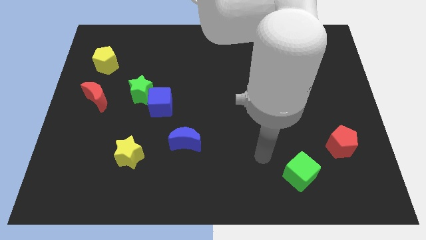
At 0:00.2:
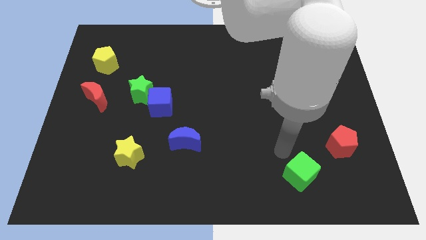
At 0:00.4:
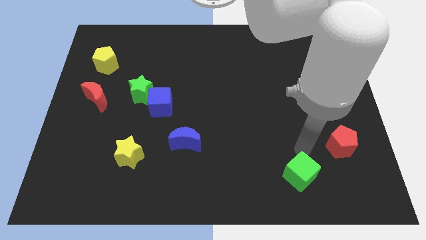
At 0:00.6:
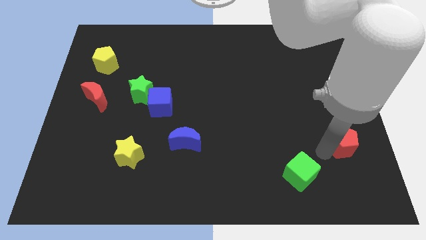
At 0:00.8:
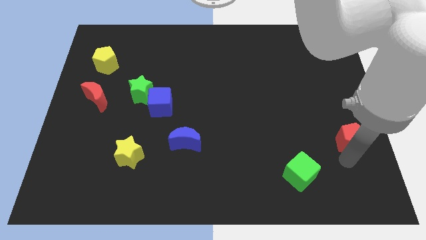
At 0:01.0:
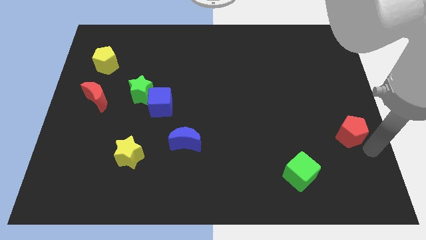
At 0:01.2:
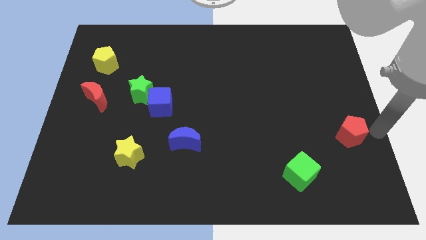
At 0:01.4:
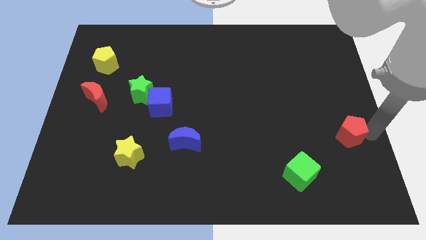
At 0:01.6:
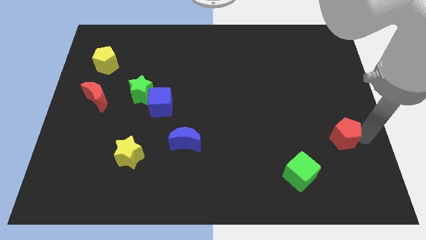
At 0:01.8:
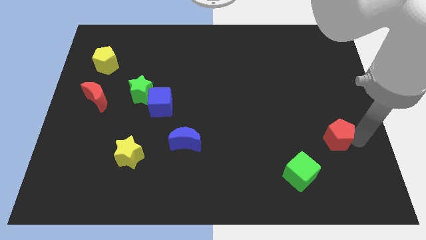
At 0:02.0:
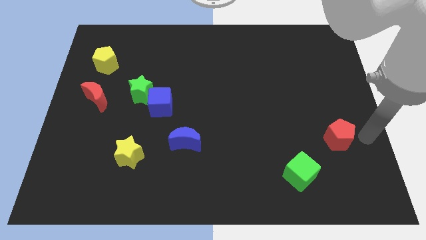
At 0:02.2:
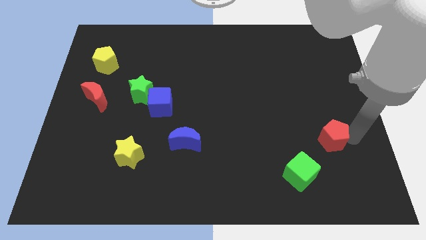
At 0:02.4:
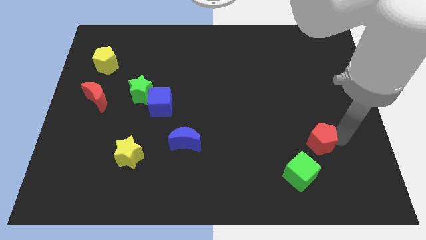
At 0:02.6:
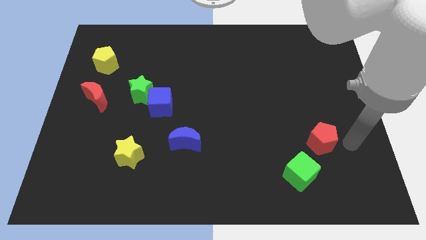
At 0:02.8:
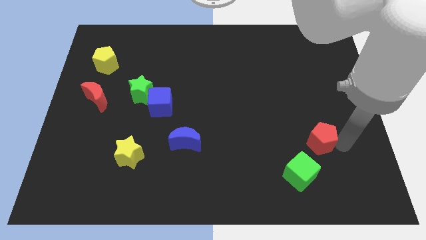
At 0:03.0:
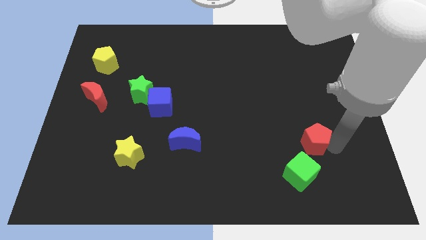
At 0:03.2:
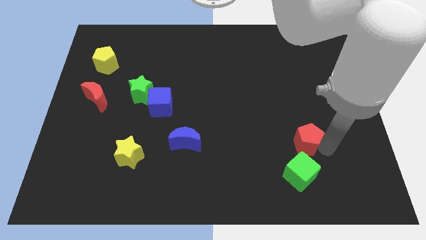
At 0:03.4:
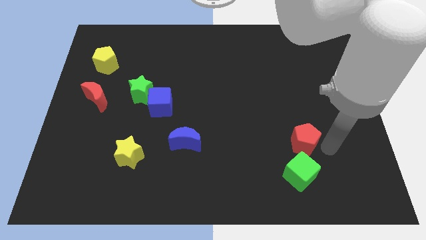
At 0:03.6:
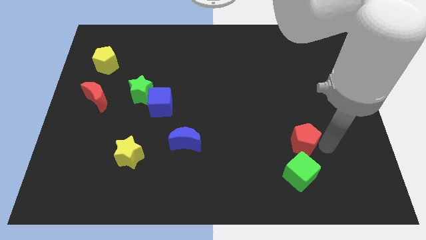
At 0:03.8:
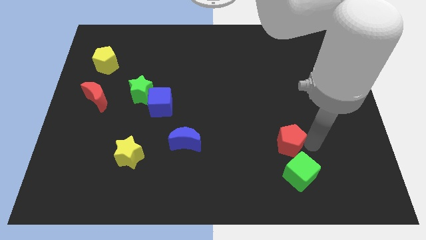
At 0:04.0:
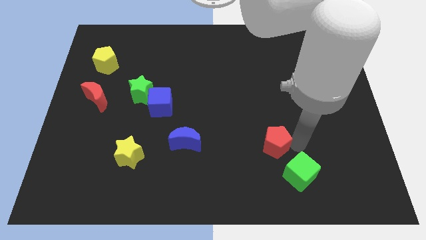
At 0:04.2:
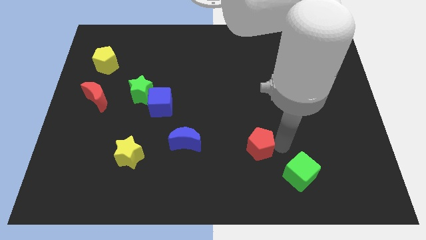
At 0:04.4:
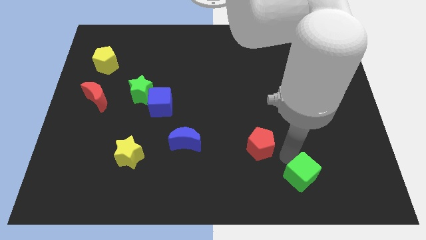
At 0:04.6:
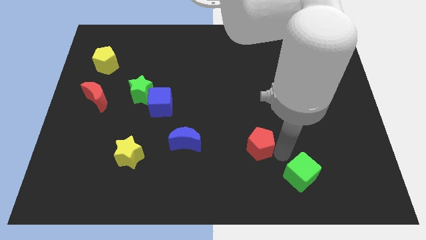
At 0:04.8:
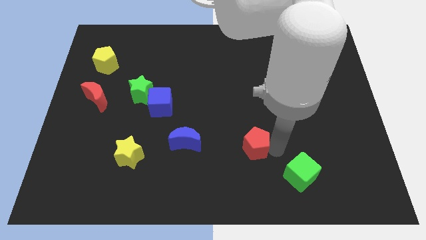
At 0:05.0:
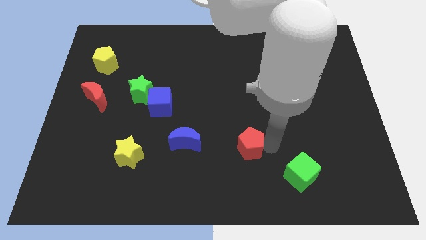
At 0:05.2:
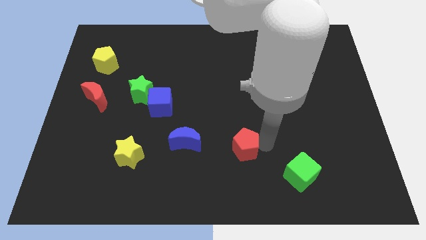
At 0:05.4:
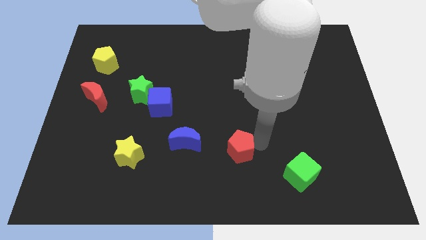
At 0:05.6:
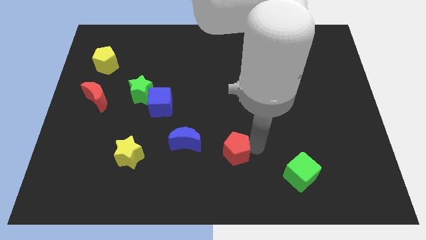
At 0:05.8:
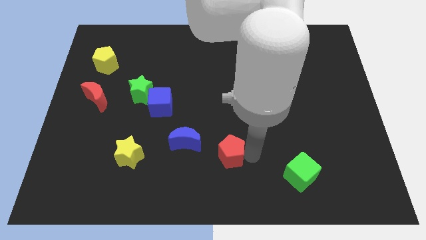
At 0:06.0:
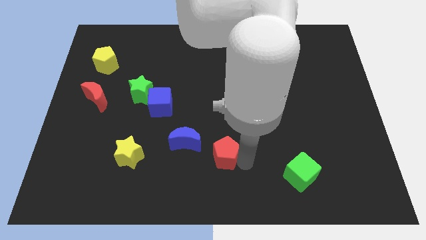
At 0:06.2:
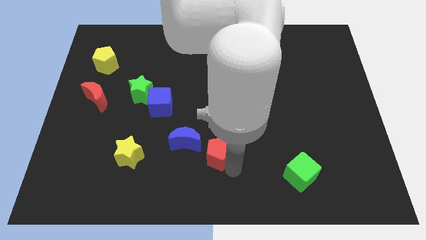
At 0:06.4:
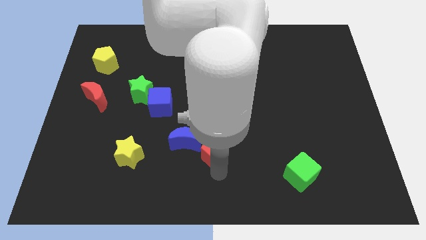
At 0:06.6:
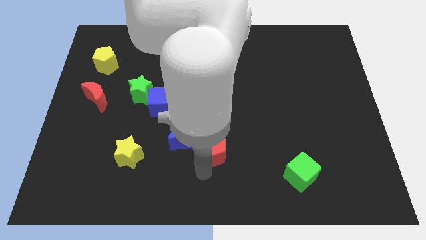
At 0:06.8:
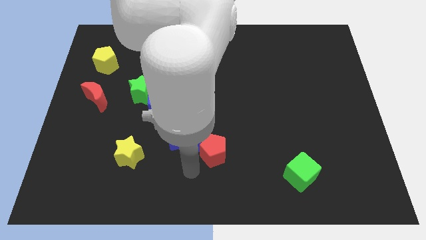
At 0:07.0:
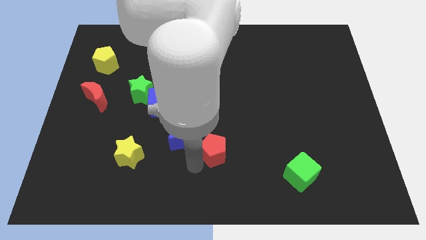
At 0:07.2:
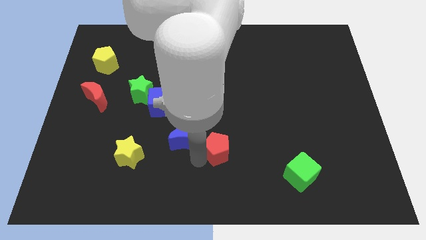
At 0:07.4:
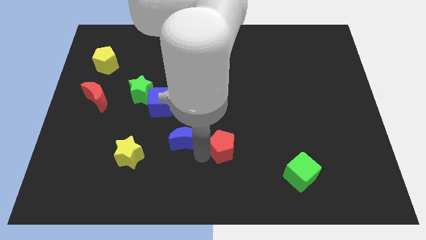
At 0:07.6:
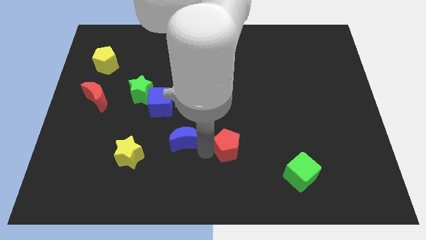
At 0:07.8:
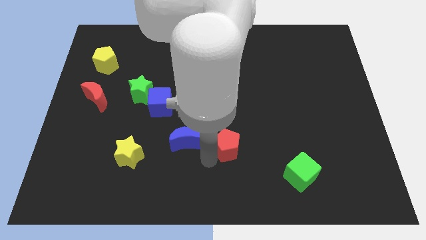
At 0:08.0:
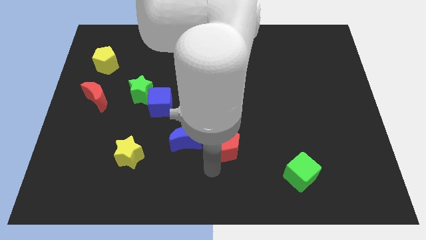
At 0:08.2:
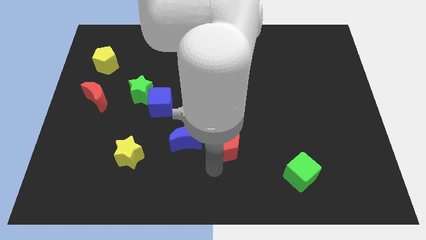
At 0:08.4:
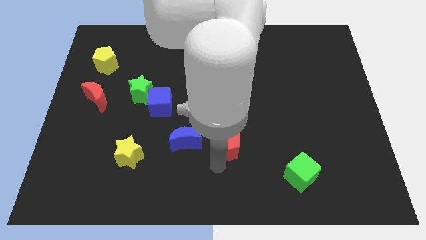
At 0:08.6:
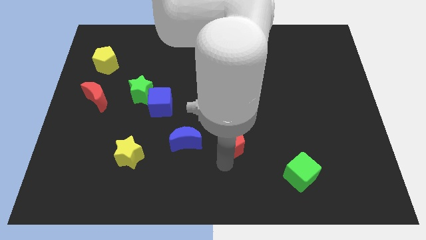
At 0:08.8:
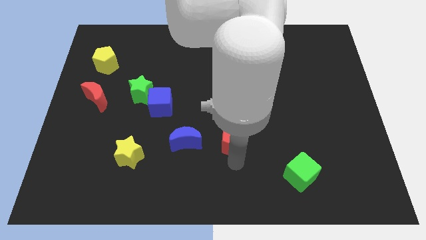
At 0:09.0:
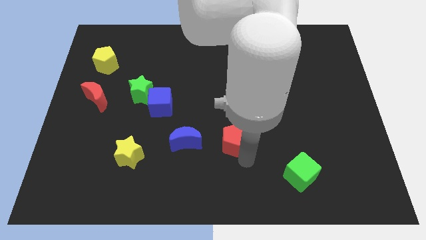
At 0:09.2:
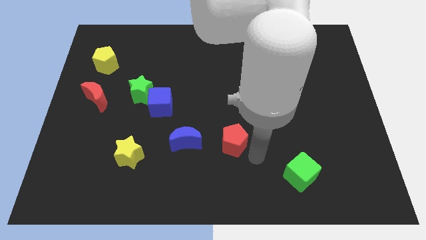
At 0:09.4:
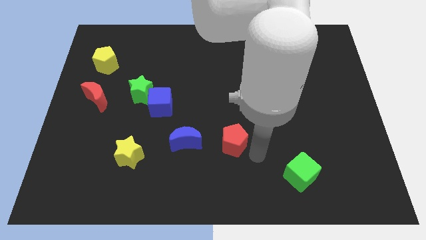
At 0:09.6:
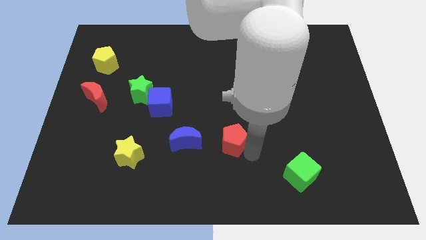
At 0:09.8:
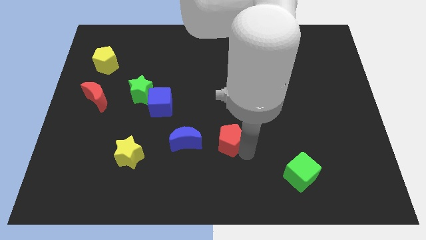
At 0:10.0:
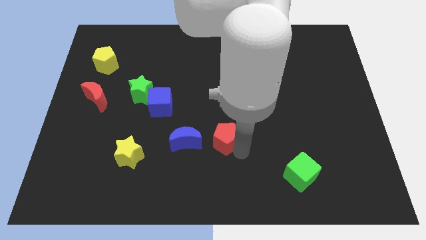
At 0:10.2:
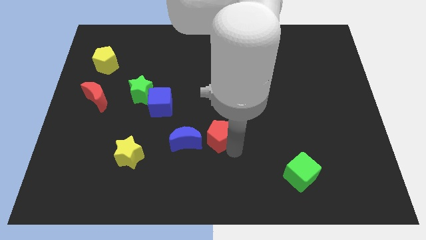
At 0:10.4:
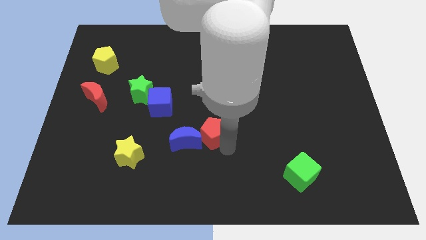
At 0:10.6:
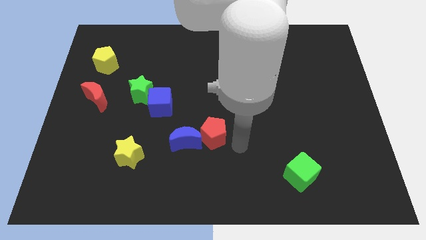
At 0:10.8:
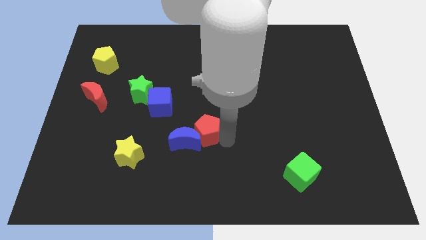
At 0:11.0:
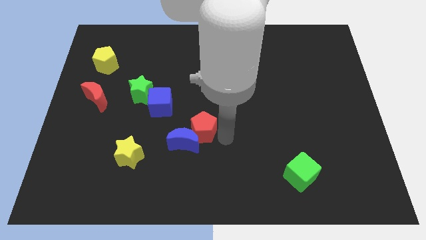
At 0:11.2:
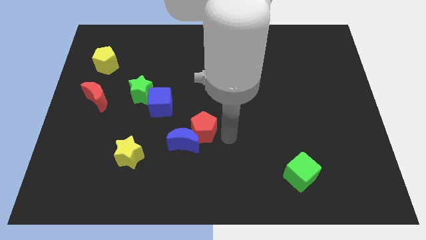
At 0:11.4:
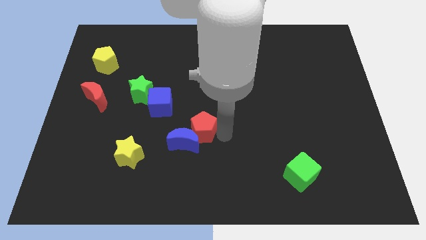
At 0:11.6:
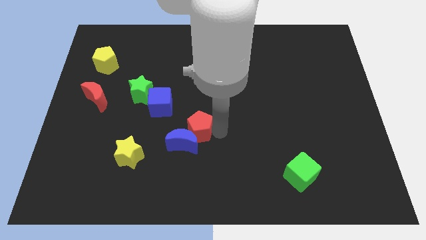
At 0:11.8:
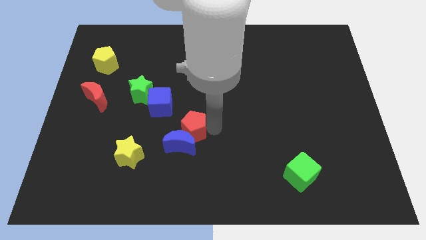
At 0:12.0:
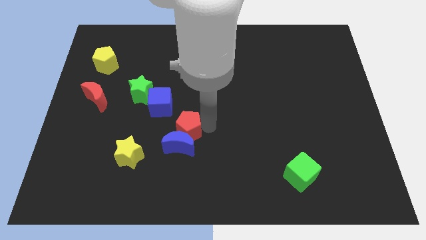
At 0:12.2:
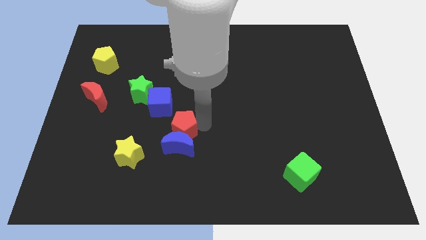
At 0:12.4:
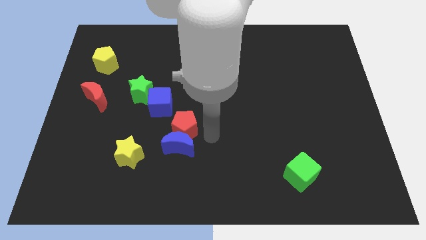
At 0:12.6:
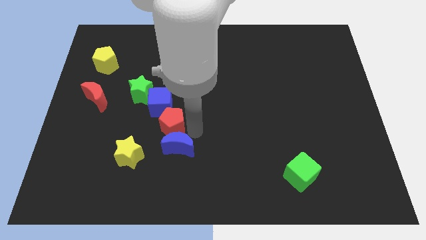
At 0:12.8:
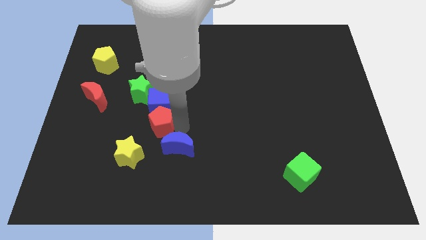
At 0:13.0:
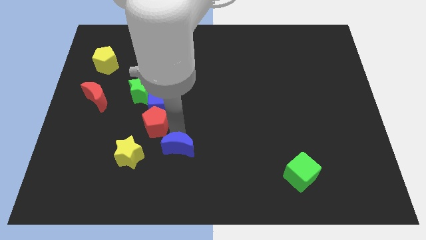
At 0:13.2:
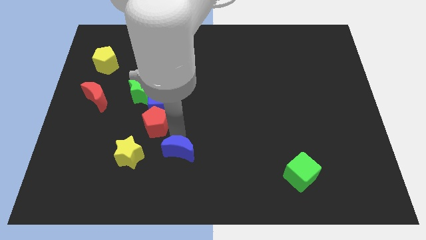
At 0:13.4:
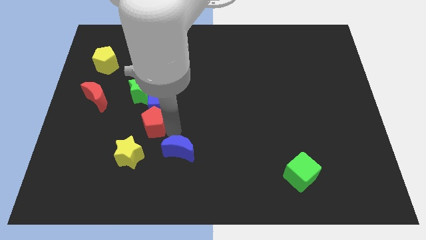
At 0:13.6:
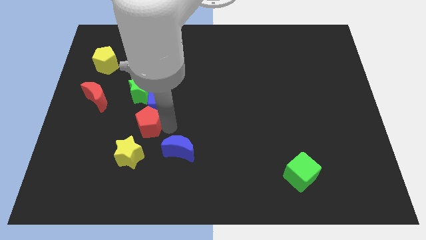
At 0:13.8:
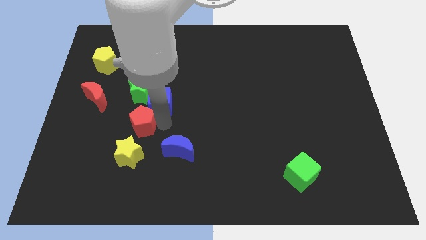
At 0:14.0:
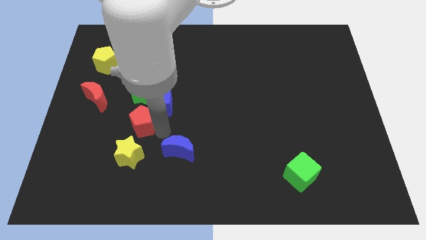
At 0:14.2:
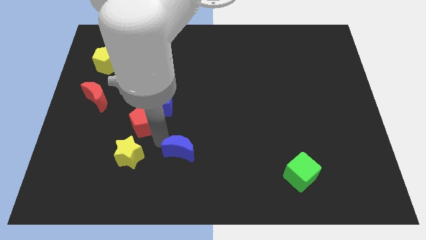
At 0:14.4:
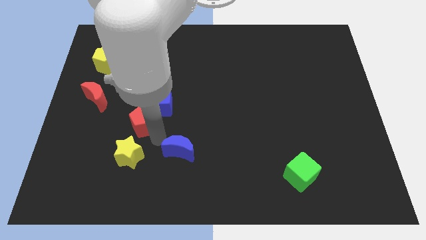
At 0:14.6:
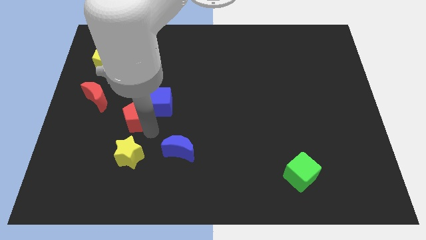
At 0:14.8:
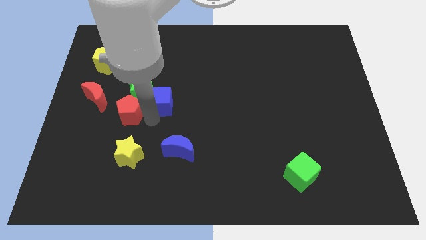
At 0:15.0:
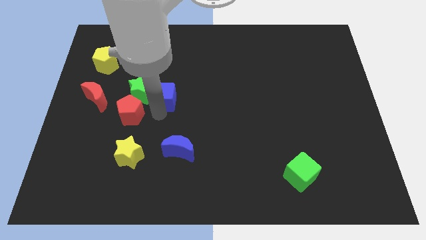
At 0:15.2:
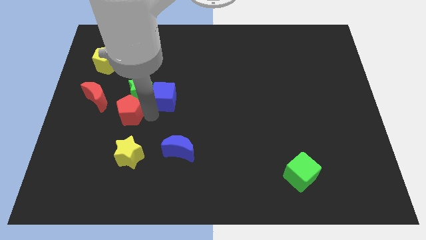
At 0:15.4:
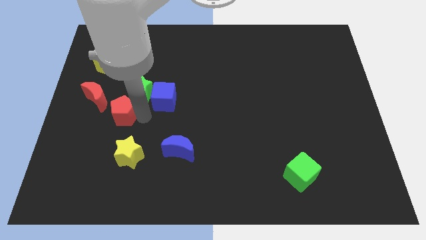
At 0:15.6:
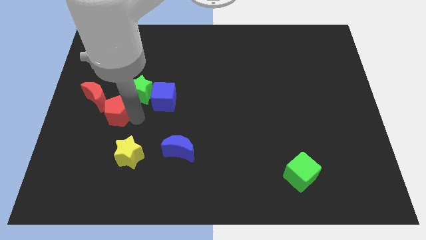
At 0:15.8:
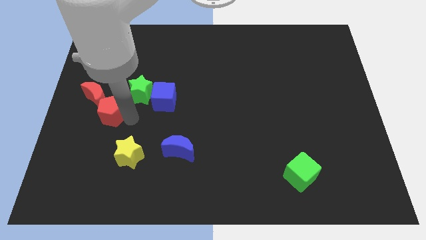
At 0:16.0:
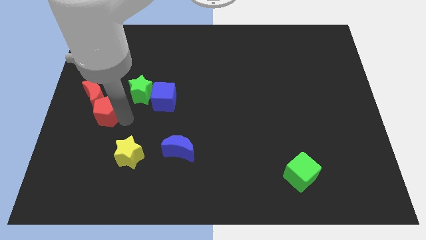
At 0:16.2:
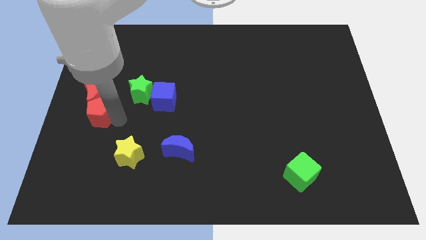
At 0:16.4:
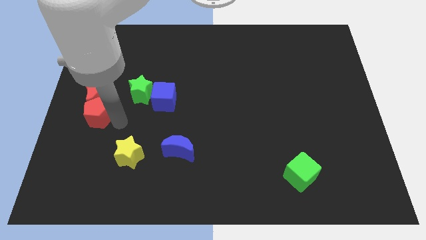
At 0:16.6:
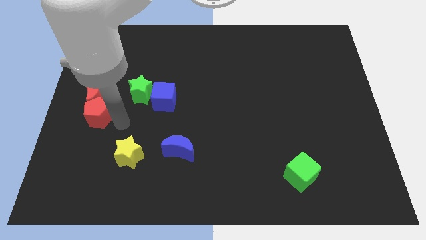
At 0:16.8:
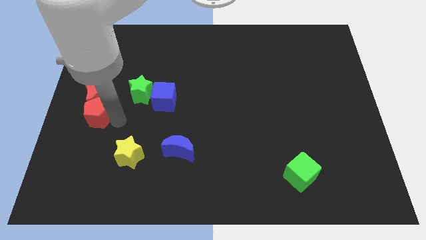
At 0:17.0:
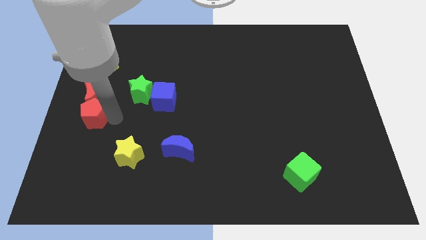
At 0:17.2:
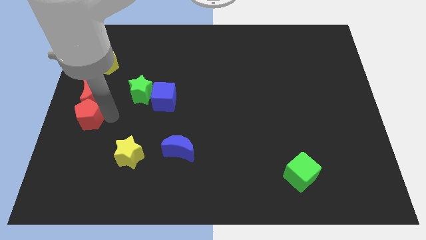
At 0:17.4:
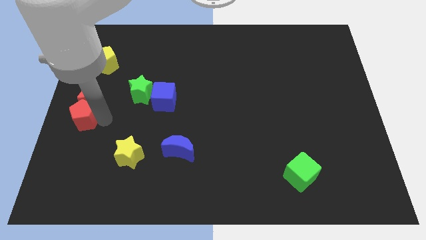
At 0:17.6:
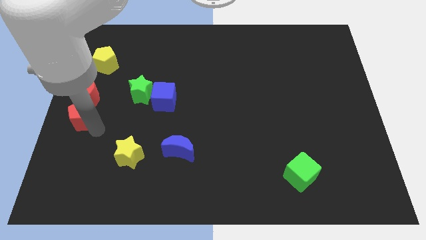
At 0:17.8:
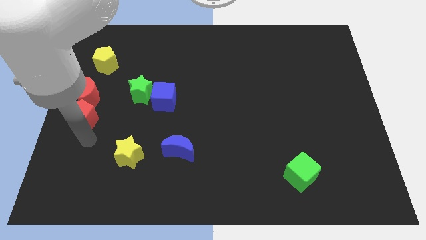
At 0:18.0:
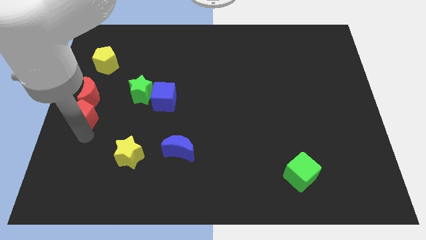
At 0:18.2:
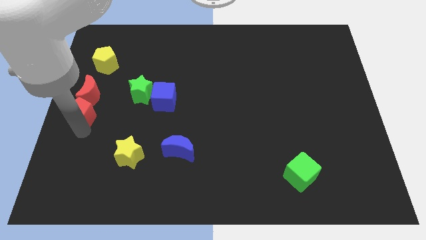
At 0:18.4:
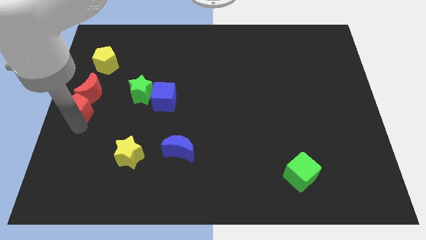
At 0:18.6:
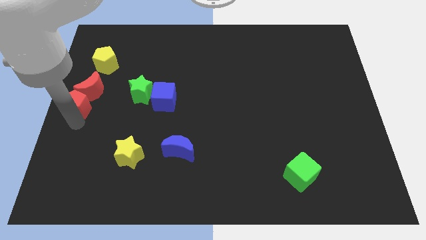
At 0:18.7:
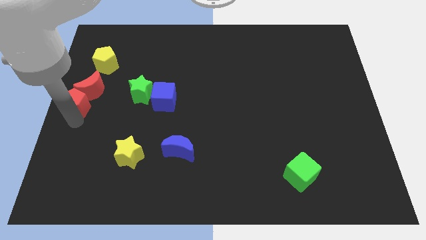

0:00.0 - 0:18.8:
put the red pentagon left of the green star
